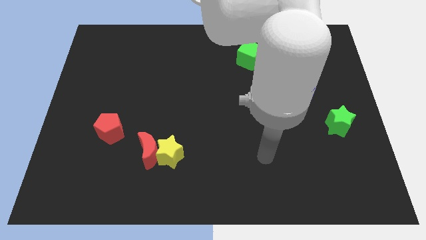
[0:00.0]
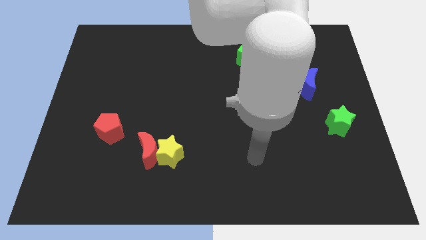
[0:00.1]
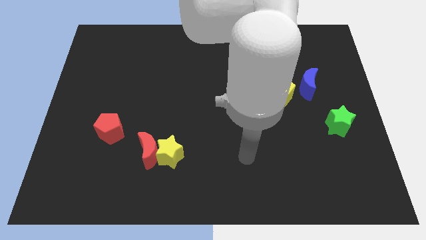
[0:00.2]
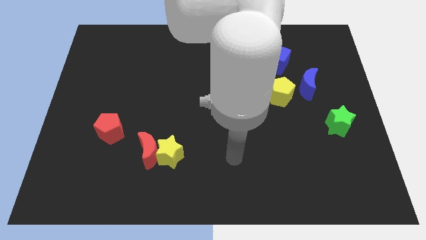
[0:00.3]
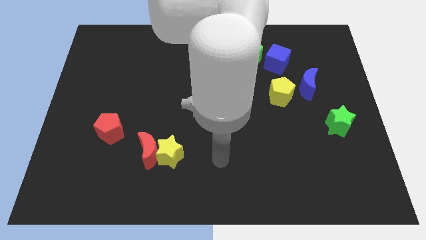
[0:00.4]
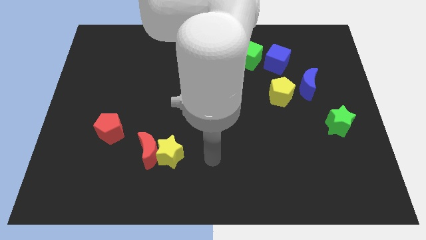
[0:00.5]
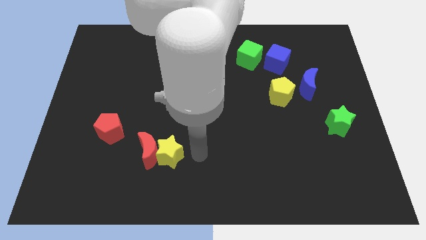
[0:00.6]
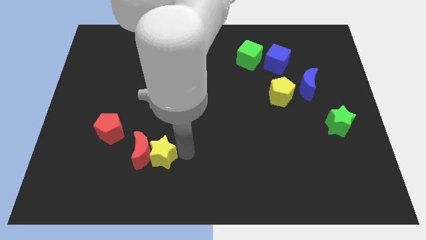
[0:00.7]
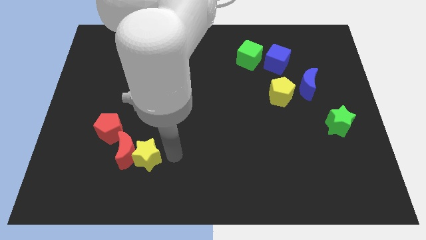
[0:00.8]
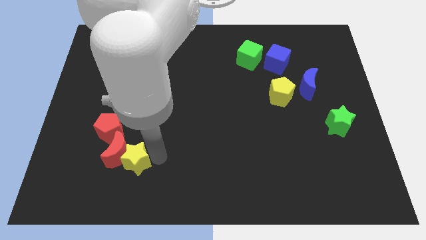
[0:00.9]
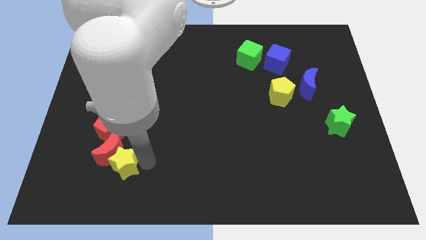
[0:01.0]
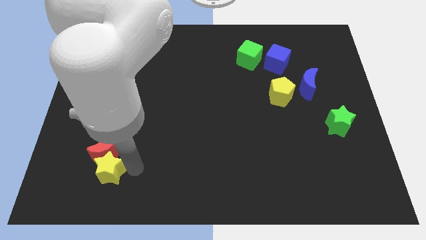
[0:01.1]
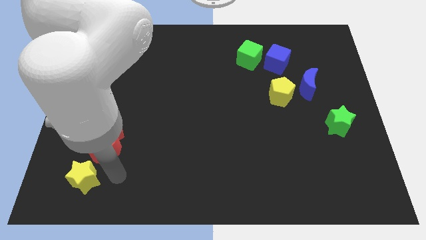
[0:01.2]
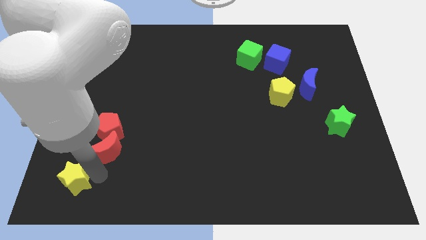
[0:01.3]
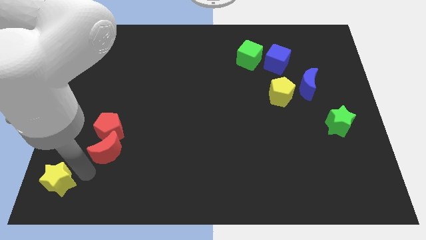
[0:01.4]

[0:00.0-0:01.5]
separate the red moon from the yellow star

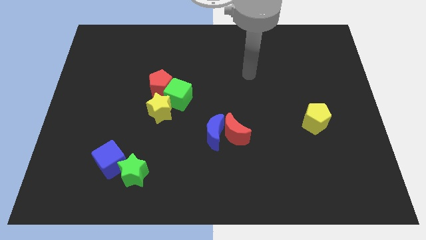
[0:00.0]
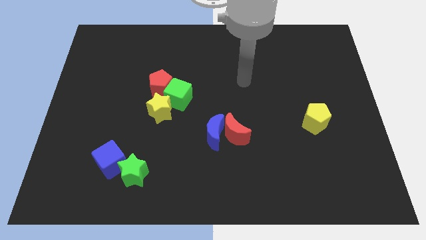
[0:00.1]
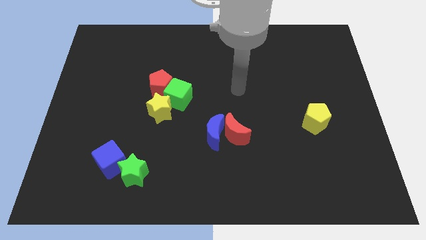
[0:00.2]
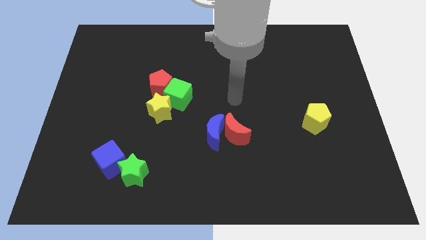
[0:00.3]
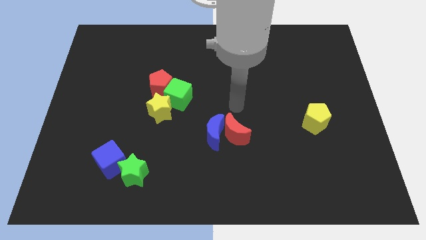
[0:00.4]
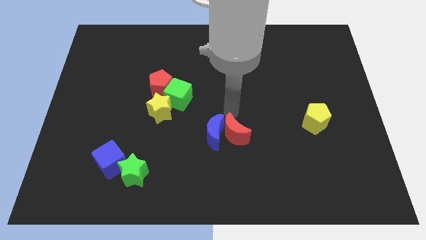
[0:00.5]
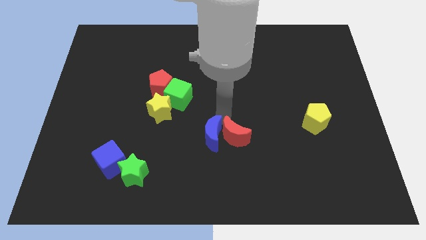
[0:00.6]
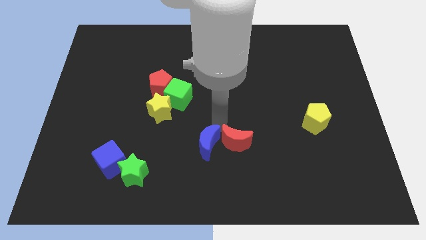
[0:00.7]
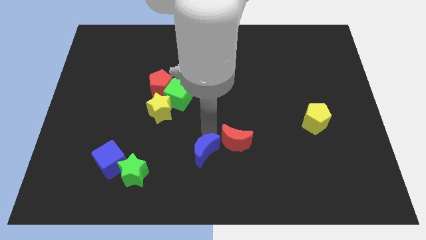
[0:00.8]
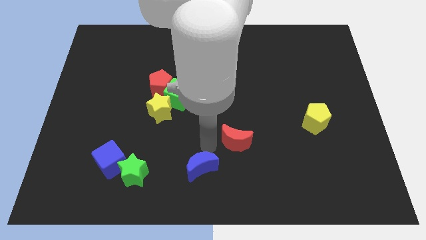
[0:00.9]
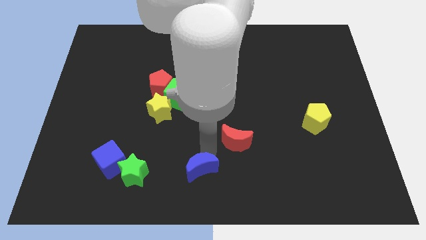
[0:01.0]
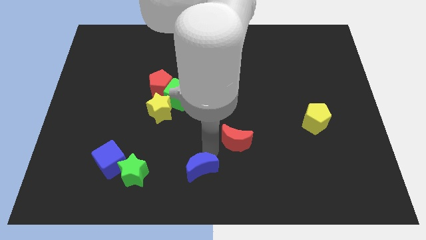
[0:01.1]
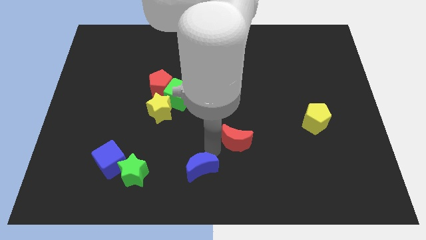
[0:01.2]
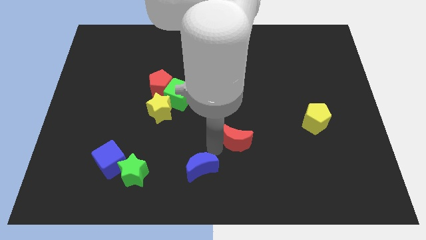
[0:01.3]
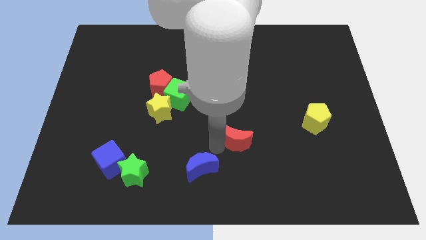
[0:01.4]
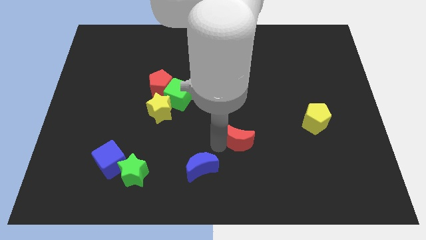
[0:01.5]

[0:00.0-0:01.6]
move the red moon away from the blue moon

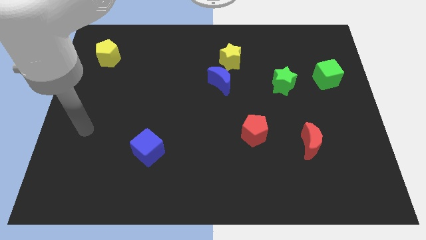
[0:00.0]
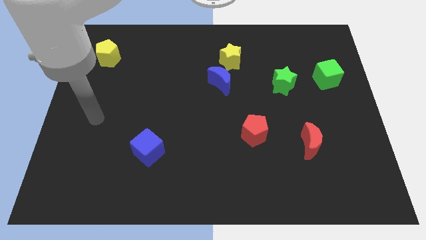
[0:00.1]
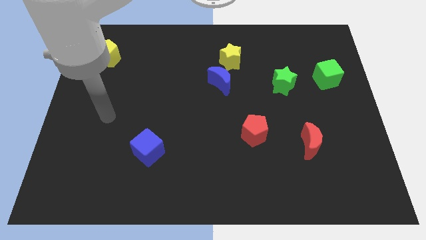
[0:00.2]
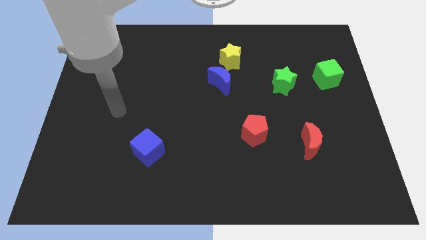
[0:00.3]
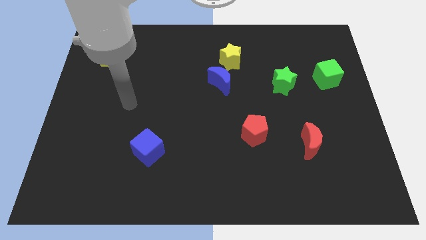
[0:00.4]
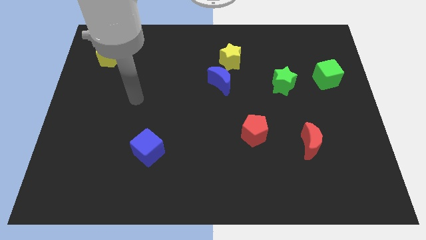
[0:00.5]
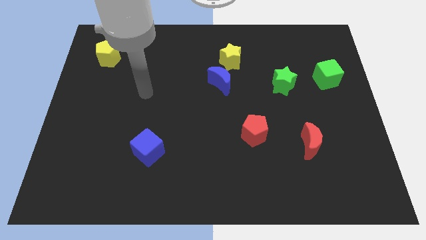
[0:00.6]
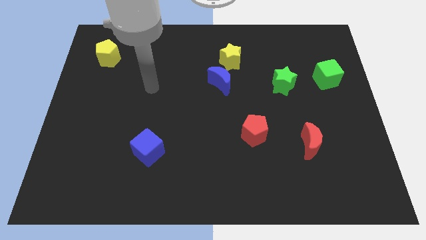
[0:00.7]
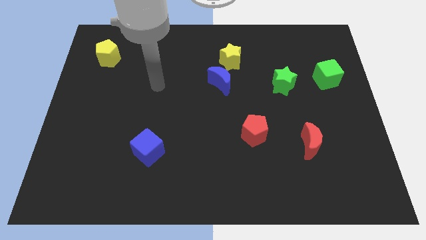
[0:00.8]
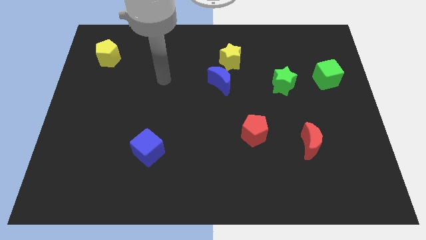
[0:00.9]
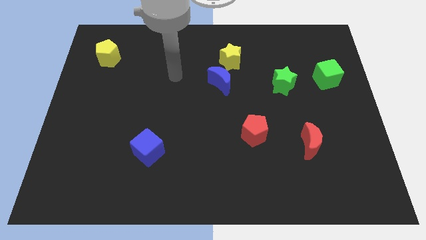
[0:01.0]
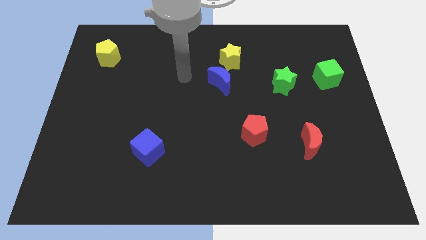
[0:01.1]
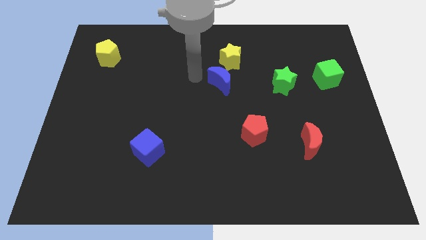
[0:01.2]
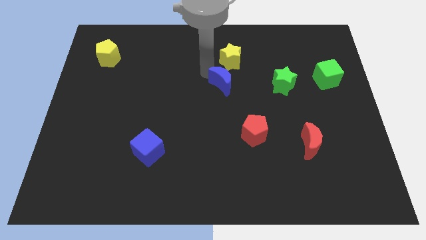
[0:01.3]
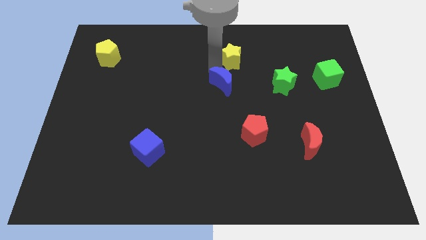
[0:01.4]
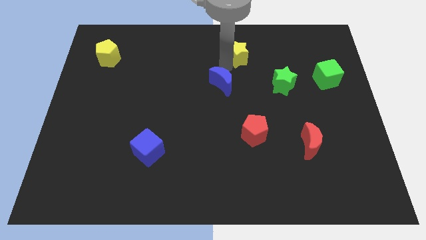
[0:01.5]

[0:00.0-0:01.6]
pull the blue moon apart from the yellow star

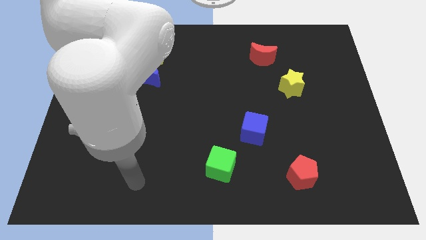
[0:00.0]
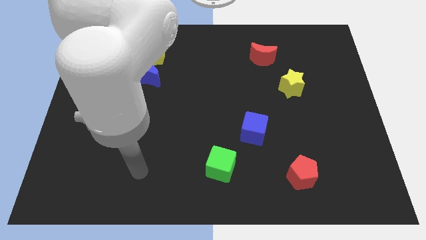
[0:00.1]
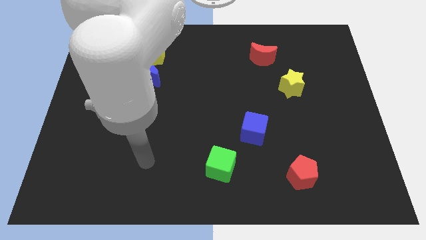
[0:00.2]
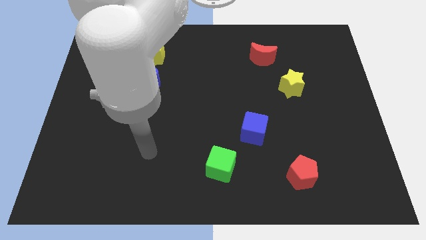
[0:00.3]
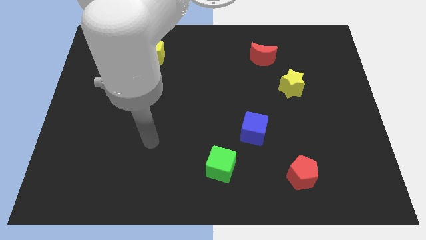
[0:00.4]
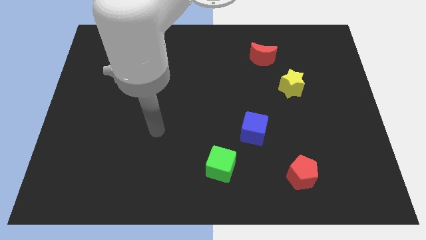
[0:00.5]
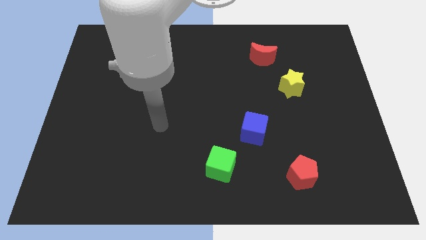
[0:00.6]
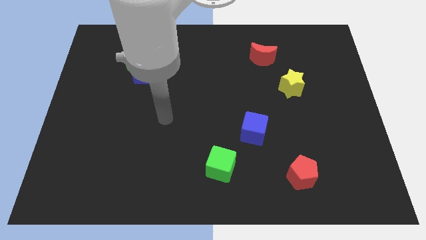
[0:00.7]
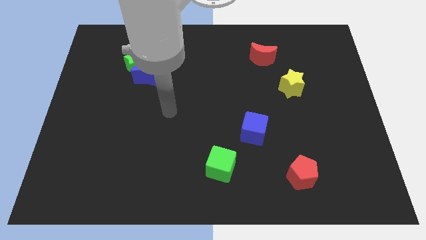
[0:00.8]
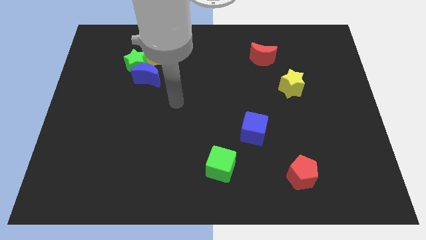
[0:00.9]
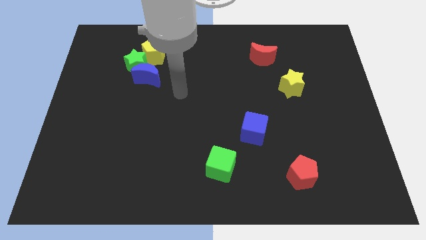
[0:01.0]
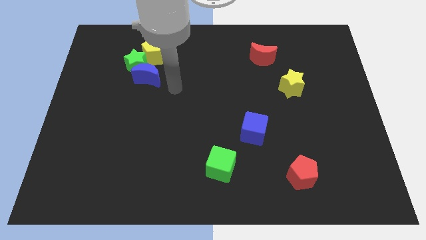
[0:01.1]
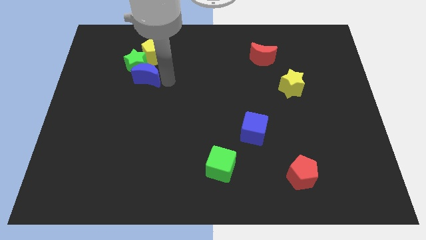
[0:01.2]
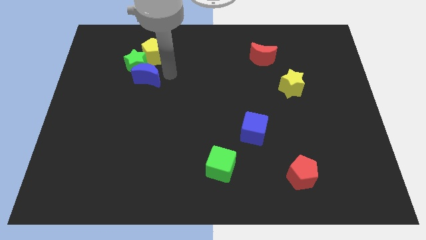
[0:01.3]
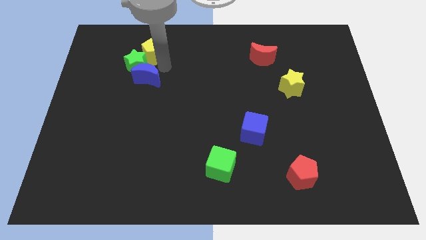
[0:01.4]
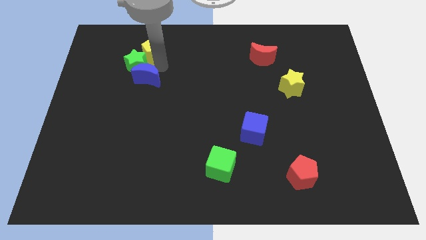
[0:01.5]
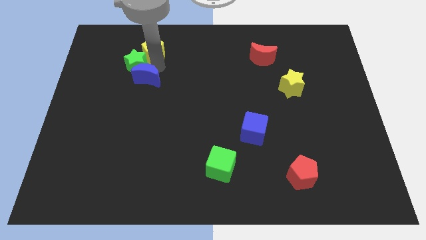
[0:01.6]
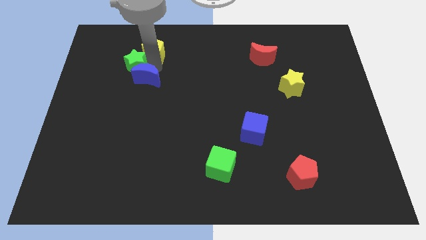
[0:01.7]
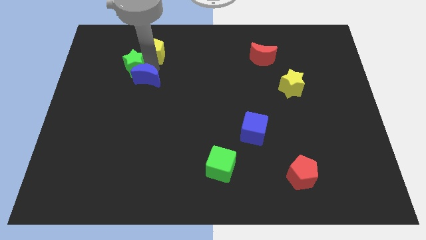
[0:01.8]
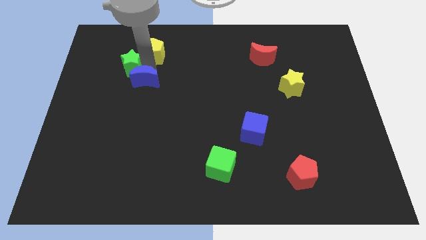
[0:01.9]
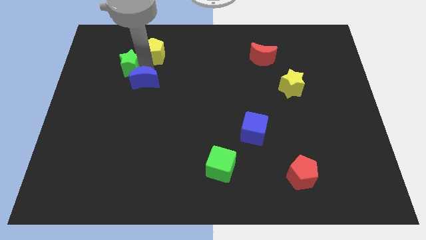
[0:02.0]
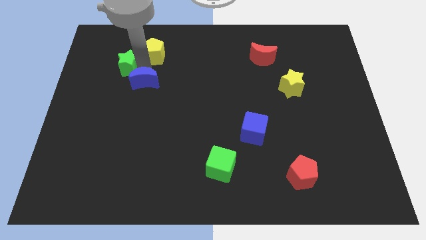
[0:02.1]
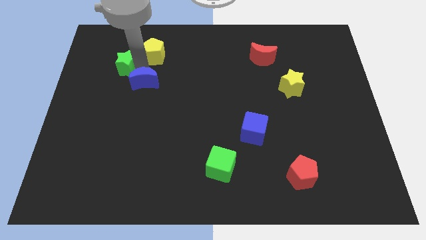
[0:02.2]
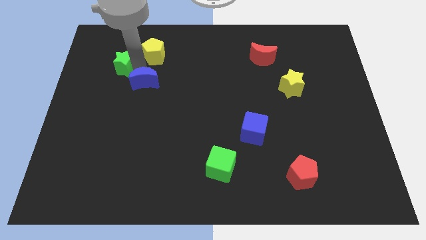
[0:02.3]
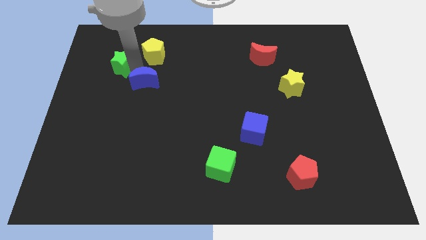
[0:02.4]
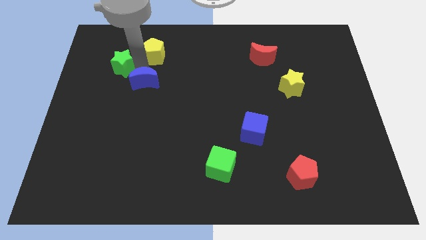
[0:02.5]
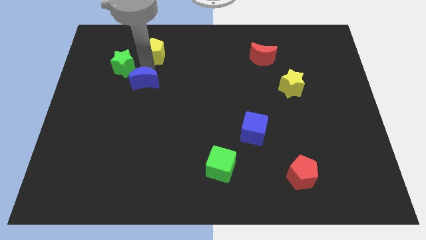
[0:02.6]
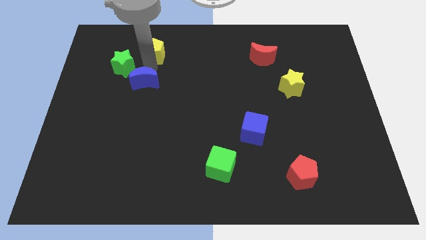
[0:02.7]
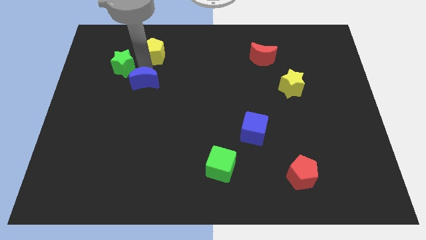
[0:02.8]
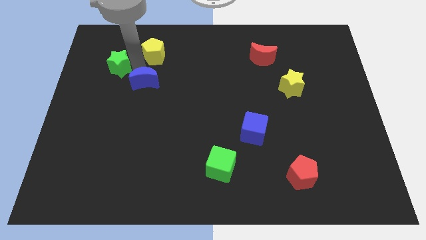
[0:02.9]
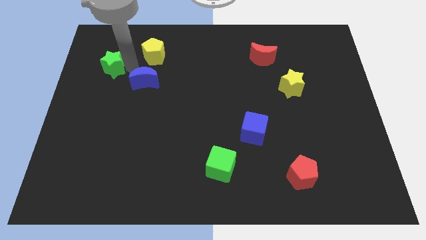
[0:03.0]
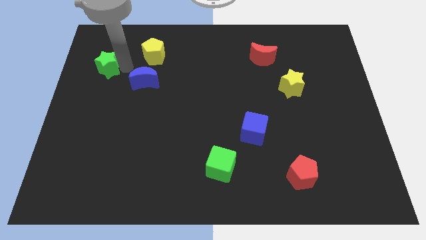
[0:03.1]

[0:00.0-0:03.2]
move the green star away from the blue moon and yellow pentagon

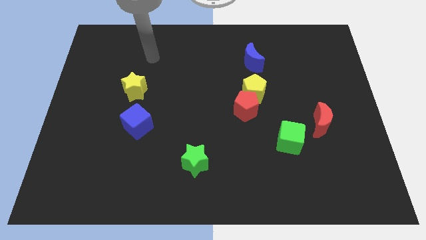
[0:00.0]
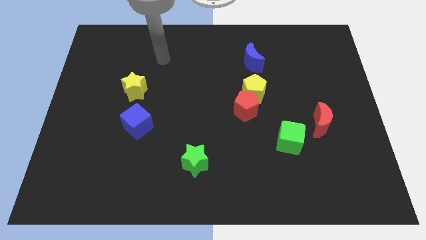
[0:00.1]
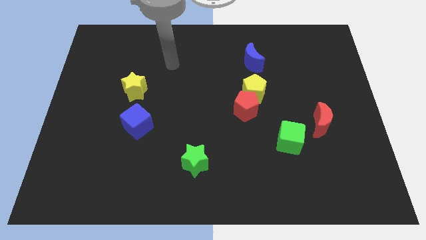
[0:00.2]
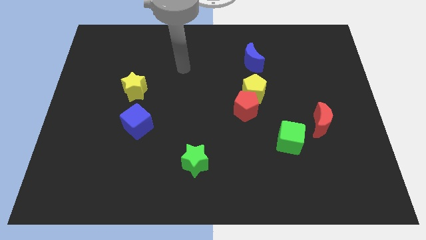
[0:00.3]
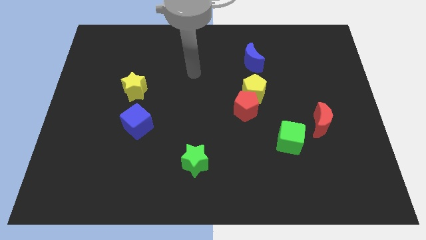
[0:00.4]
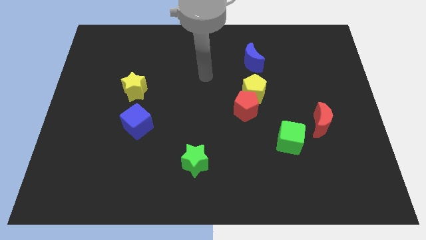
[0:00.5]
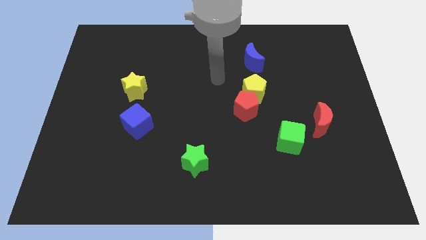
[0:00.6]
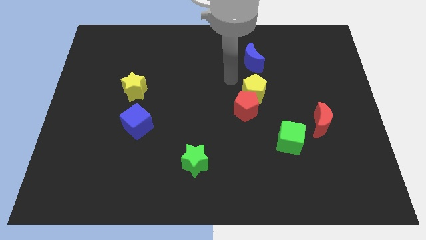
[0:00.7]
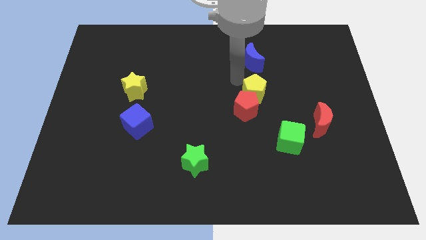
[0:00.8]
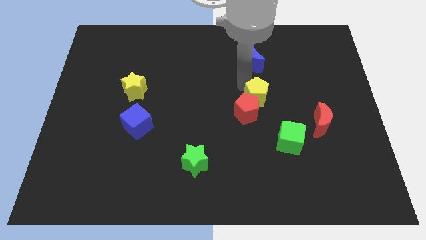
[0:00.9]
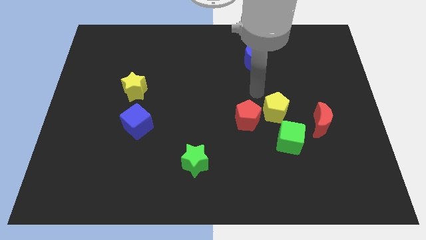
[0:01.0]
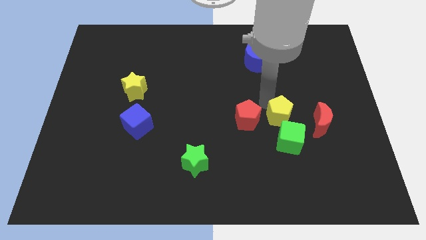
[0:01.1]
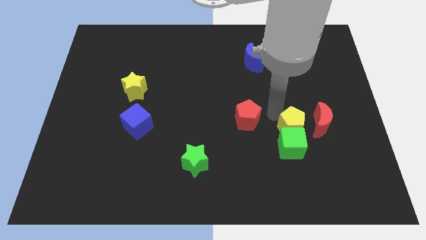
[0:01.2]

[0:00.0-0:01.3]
separate the red pentagon from the yellow pentagon
